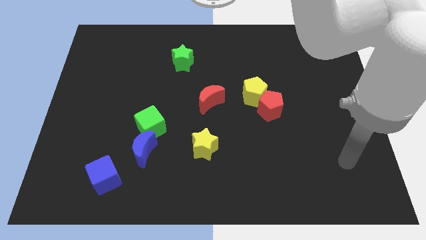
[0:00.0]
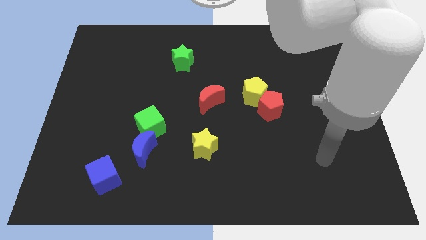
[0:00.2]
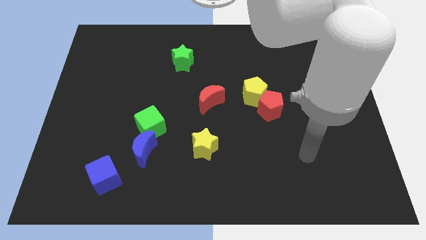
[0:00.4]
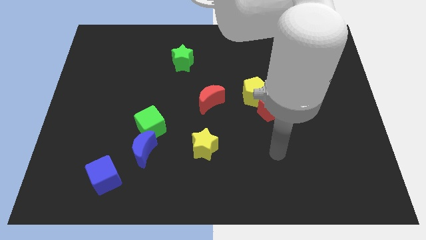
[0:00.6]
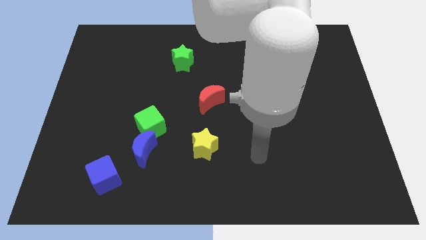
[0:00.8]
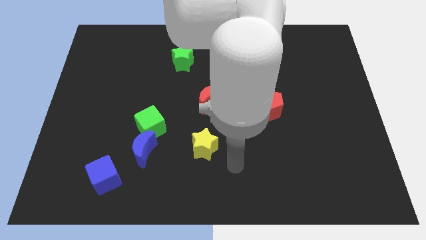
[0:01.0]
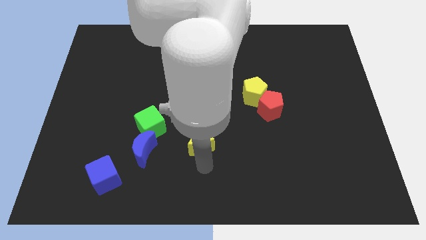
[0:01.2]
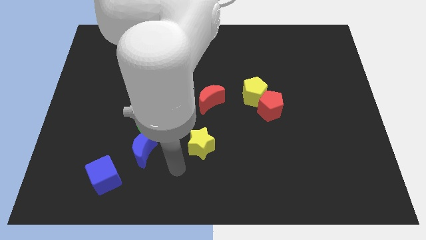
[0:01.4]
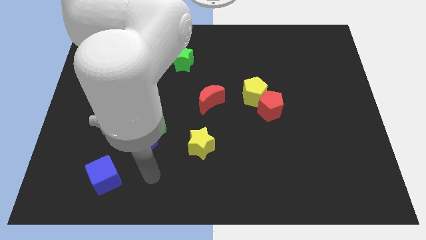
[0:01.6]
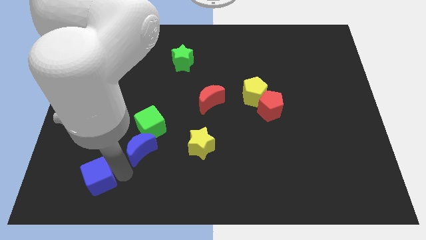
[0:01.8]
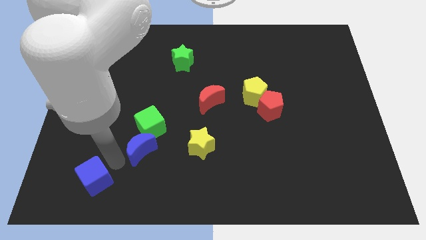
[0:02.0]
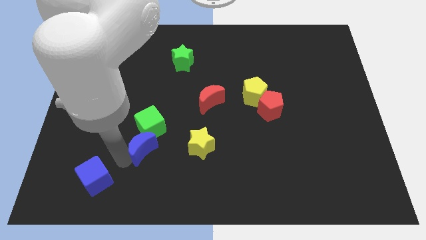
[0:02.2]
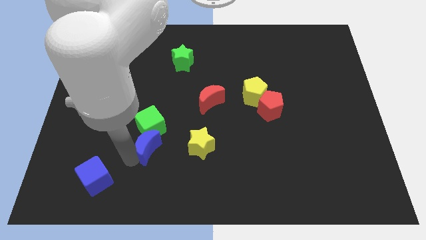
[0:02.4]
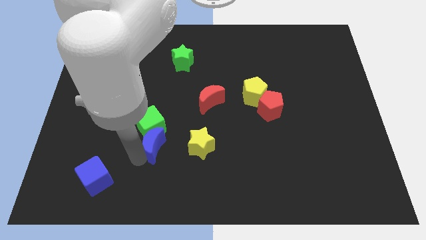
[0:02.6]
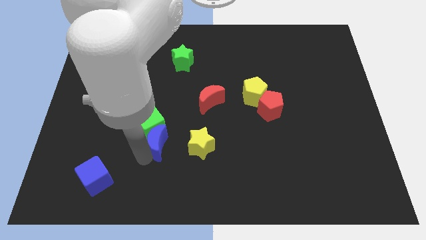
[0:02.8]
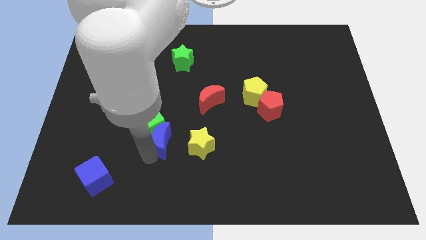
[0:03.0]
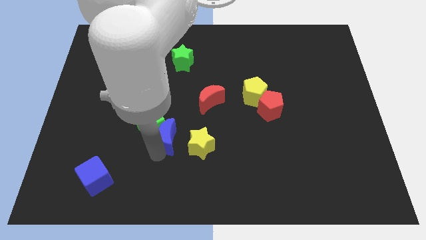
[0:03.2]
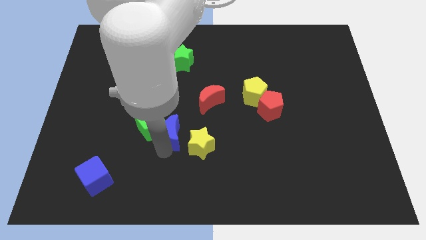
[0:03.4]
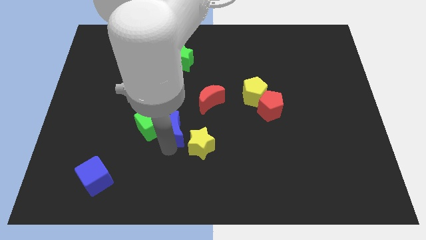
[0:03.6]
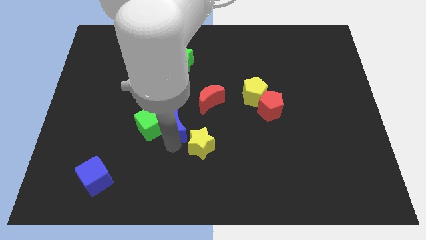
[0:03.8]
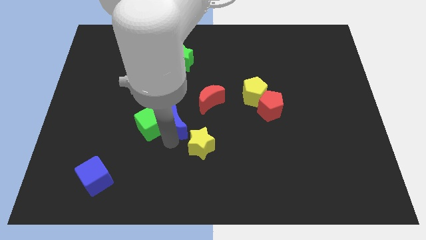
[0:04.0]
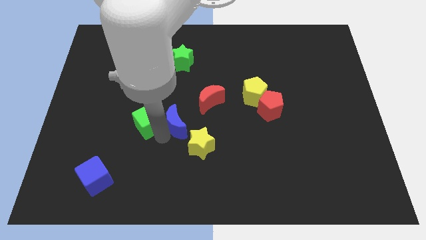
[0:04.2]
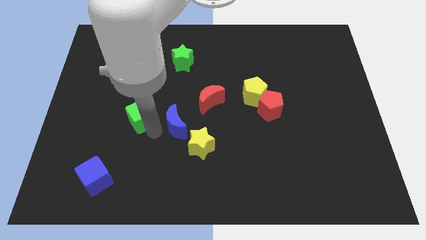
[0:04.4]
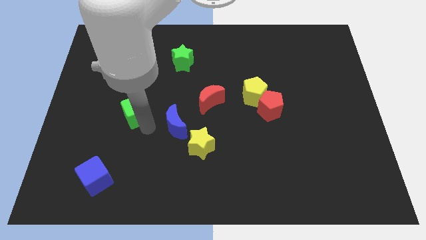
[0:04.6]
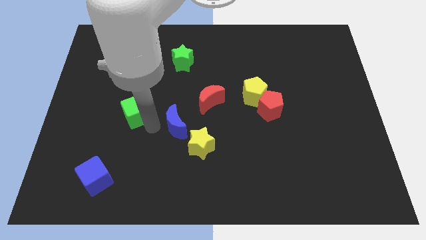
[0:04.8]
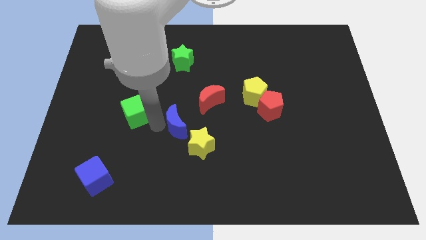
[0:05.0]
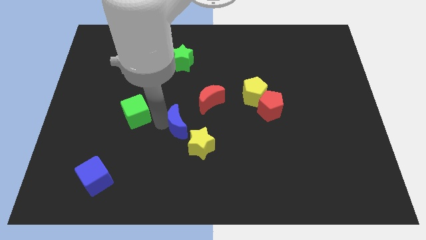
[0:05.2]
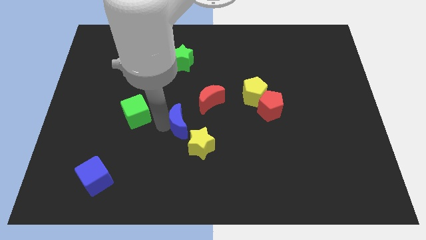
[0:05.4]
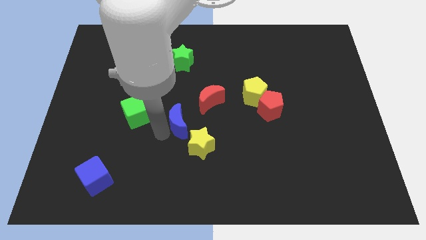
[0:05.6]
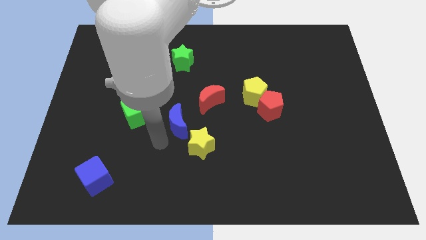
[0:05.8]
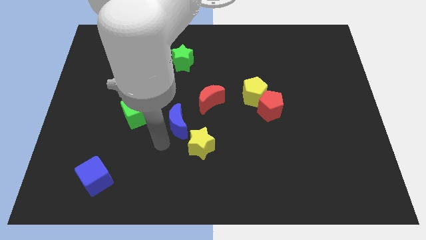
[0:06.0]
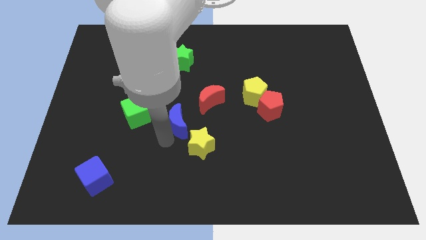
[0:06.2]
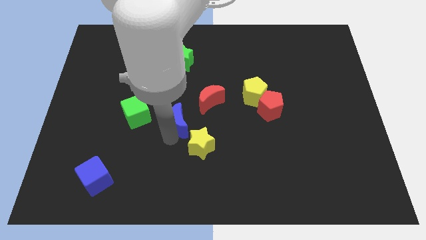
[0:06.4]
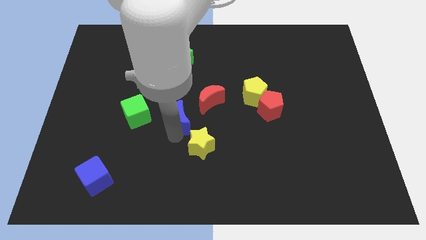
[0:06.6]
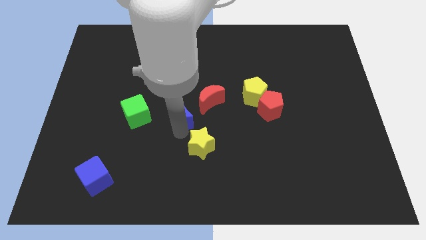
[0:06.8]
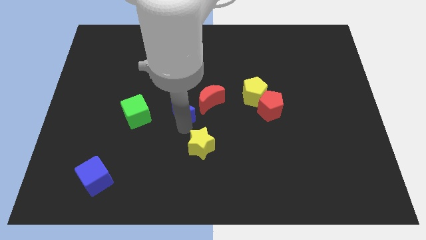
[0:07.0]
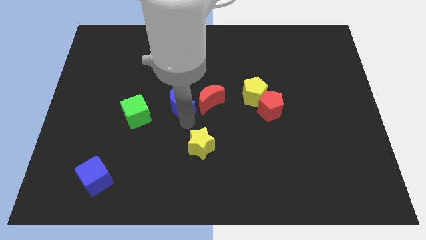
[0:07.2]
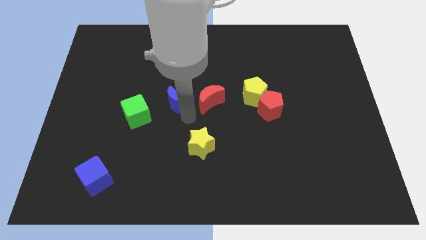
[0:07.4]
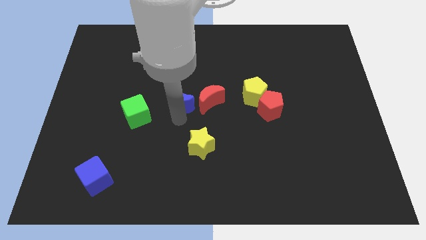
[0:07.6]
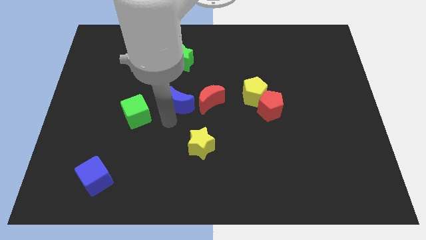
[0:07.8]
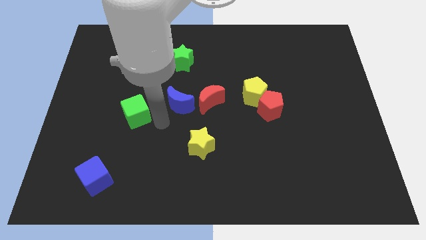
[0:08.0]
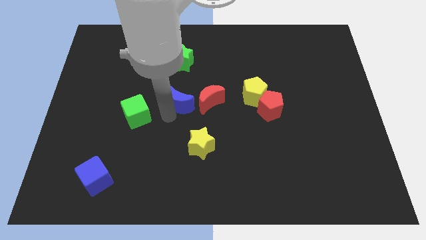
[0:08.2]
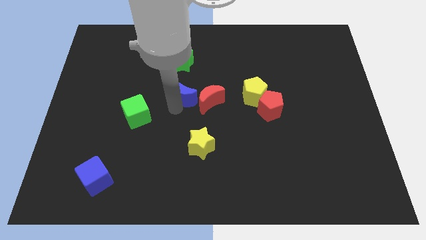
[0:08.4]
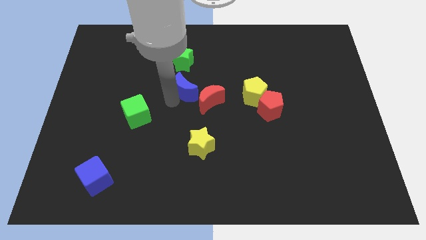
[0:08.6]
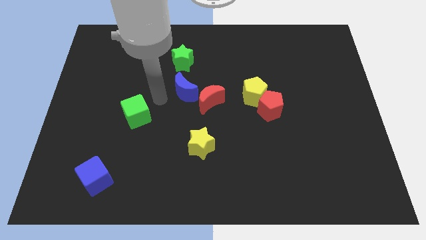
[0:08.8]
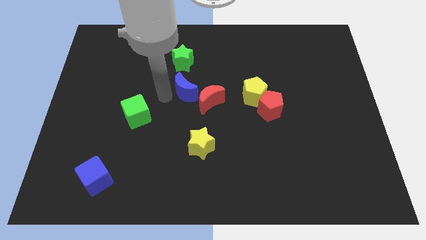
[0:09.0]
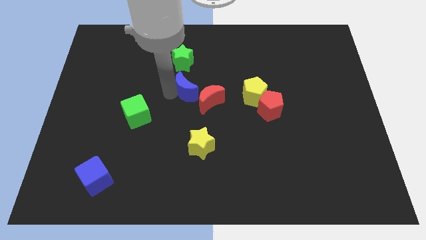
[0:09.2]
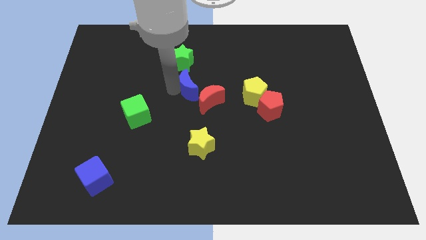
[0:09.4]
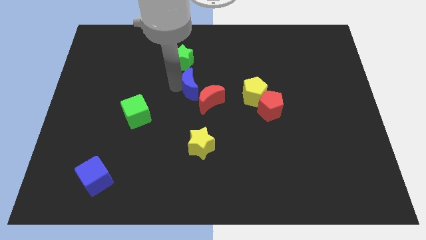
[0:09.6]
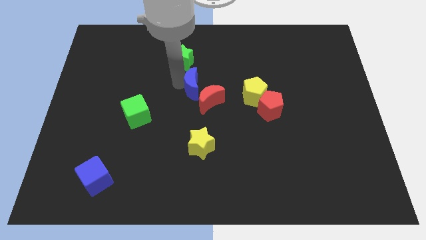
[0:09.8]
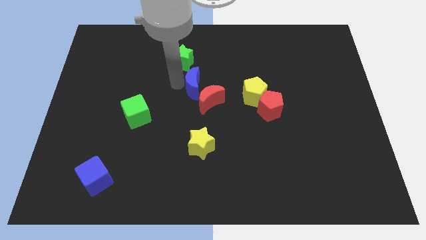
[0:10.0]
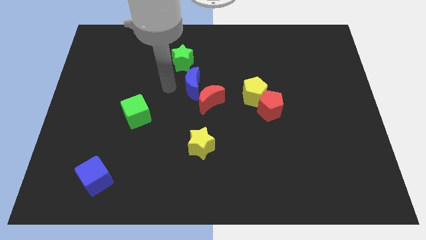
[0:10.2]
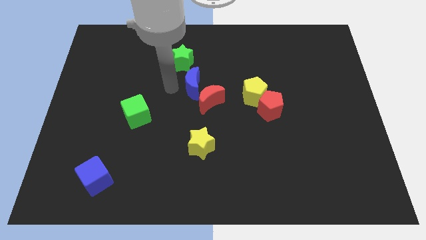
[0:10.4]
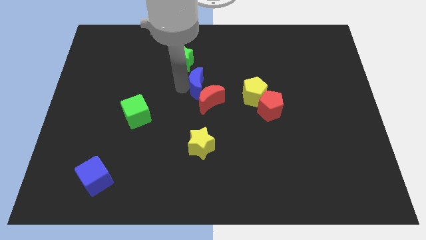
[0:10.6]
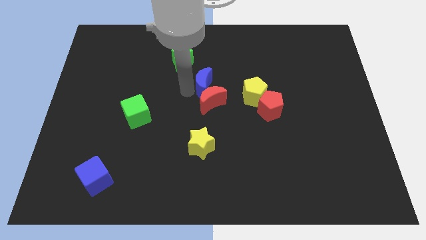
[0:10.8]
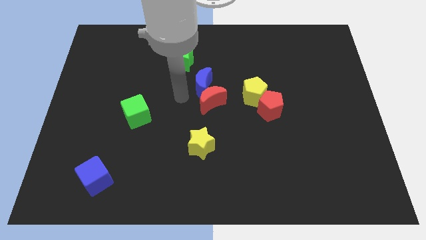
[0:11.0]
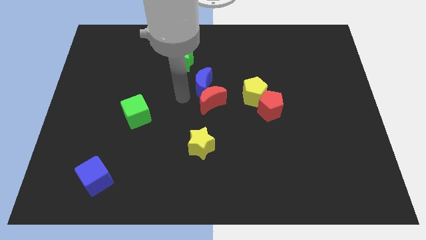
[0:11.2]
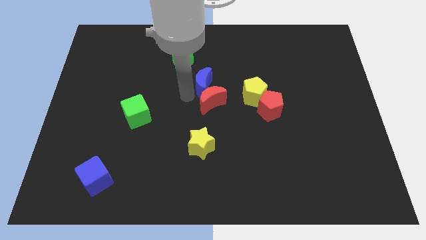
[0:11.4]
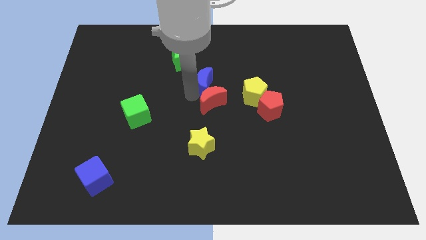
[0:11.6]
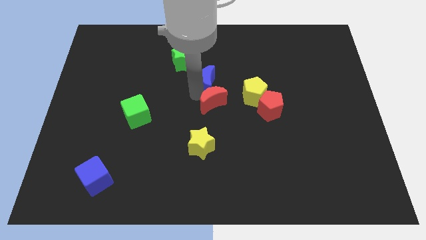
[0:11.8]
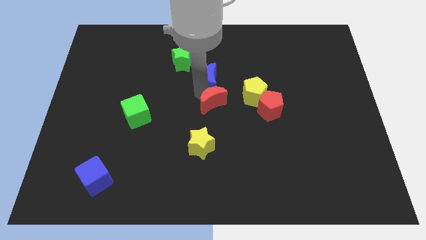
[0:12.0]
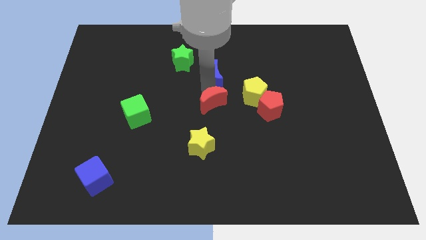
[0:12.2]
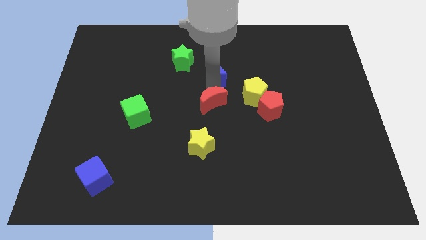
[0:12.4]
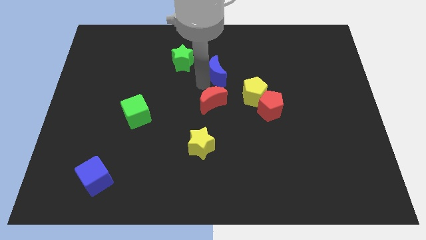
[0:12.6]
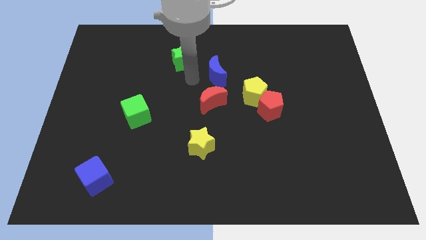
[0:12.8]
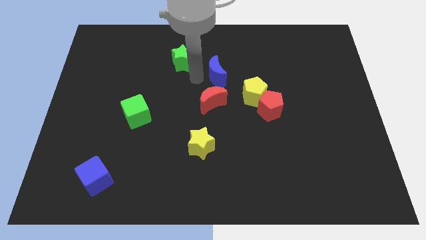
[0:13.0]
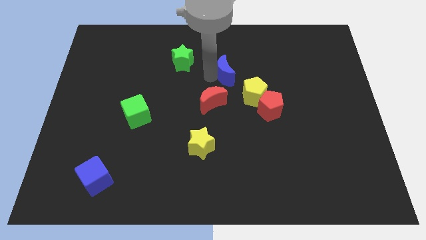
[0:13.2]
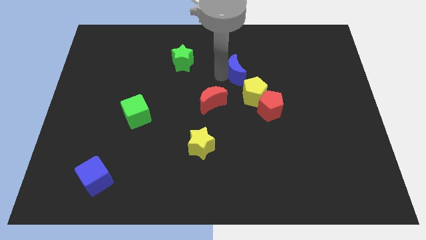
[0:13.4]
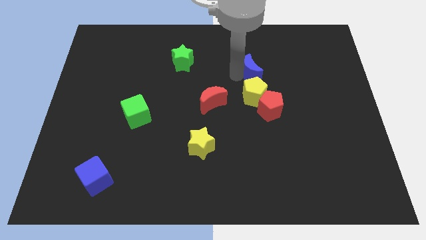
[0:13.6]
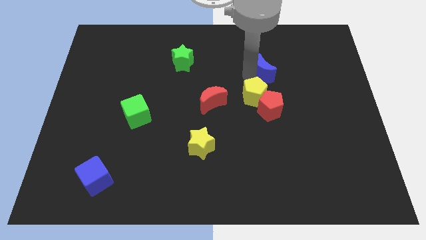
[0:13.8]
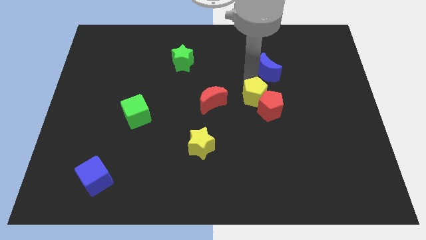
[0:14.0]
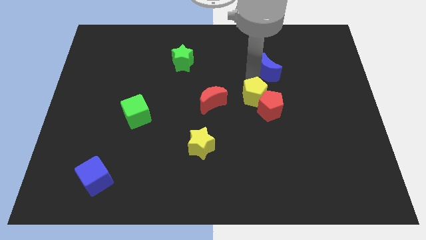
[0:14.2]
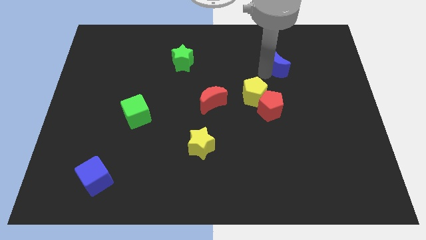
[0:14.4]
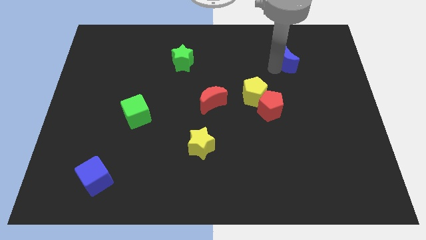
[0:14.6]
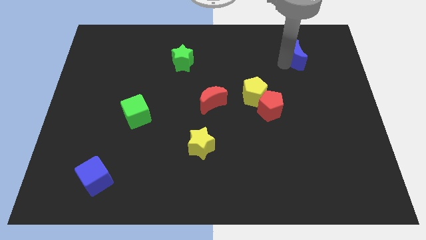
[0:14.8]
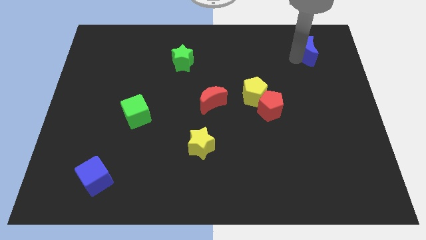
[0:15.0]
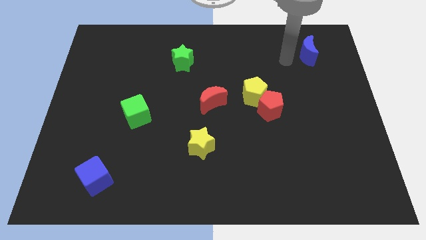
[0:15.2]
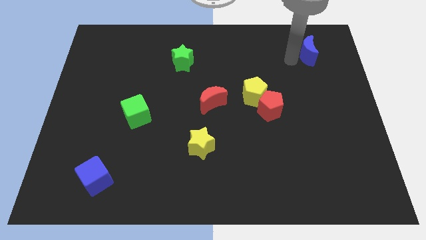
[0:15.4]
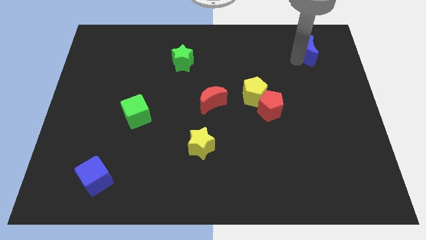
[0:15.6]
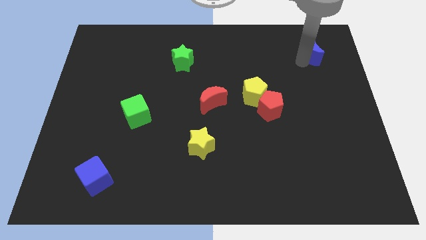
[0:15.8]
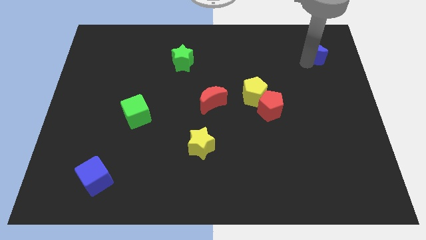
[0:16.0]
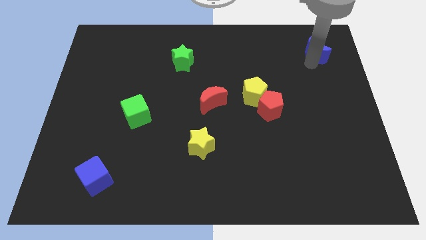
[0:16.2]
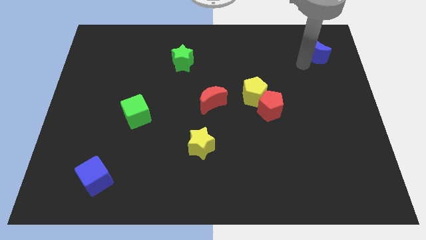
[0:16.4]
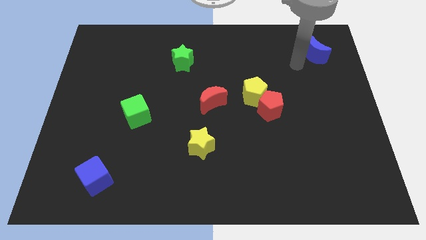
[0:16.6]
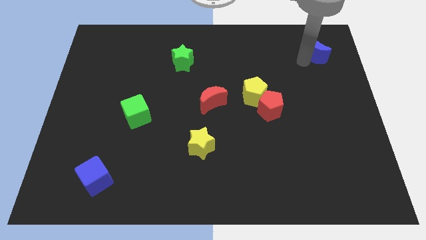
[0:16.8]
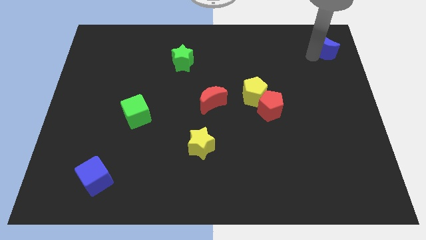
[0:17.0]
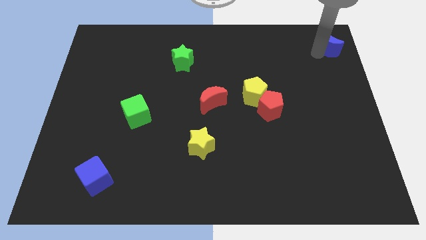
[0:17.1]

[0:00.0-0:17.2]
put the blue moon to the top right corner
